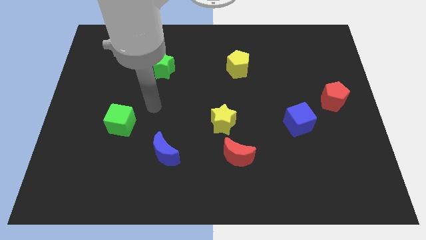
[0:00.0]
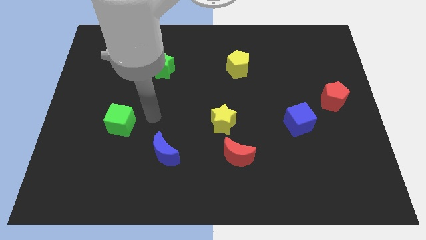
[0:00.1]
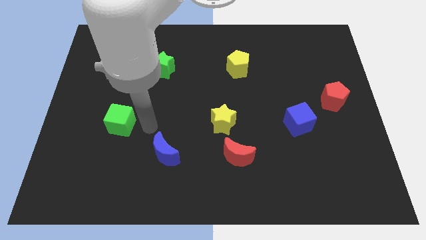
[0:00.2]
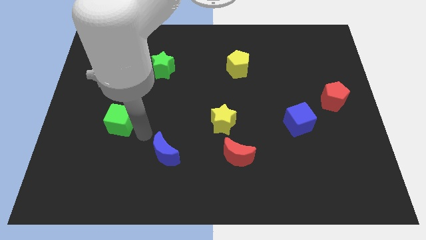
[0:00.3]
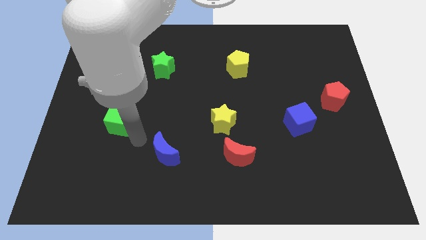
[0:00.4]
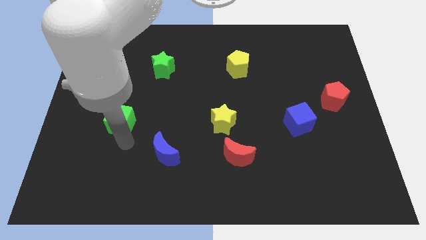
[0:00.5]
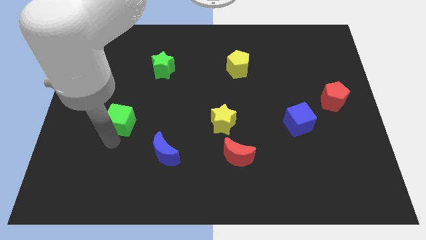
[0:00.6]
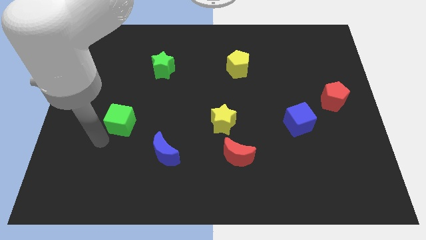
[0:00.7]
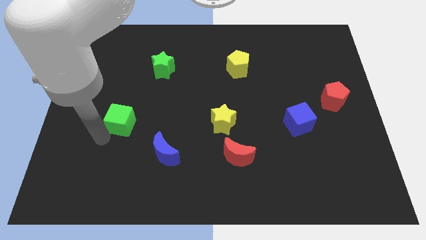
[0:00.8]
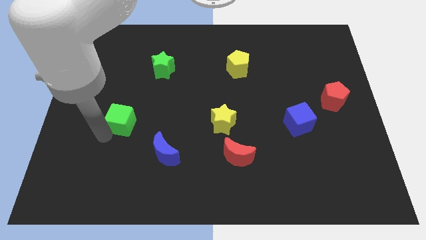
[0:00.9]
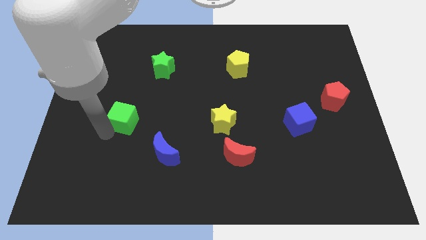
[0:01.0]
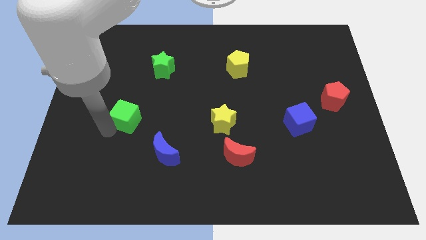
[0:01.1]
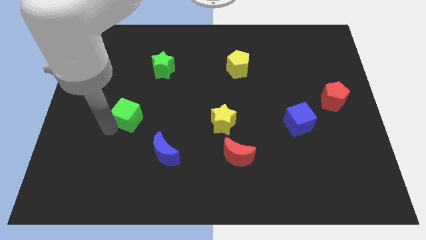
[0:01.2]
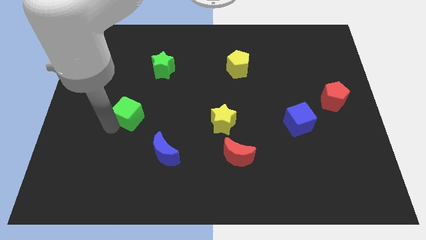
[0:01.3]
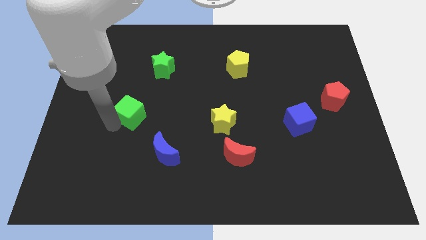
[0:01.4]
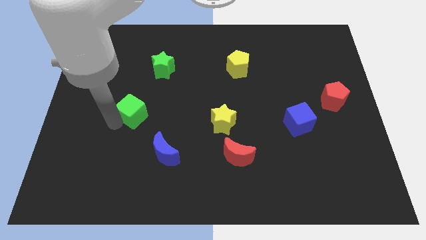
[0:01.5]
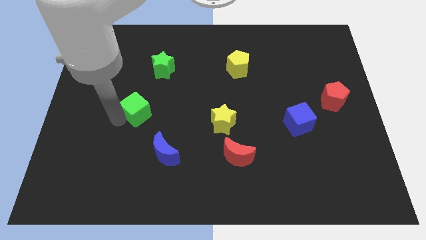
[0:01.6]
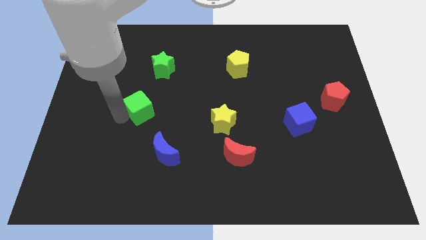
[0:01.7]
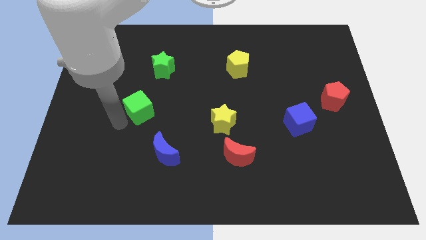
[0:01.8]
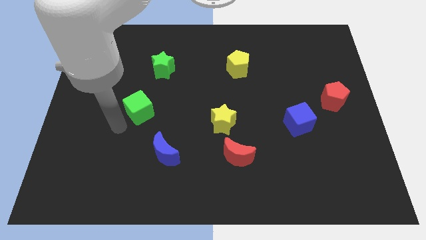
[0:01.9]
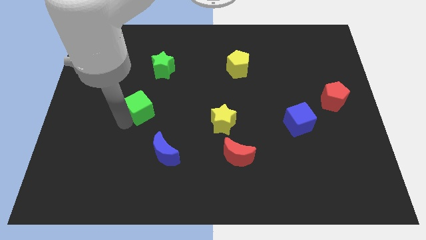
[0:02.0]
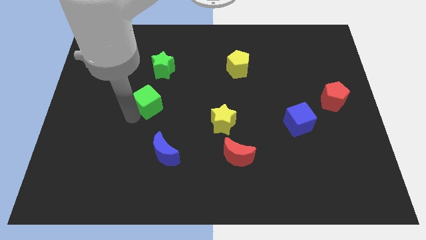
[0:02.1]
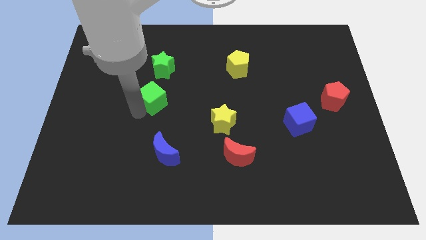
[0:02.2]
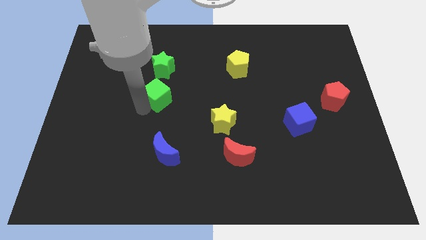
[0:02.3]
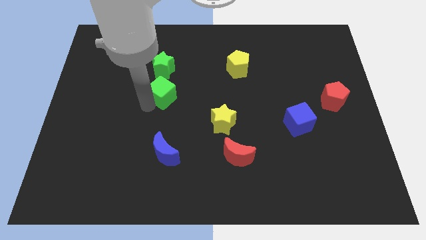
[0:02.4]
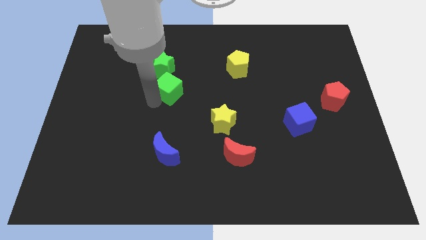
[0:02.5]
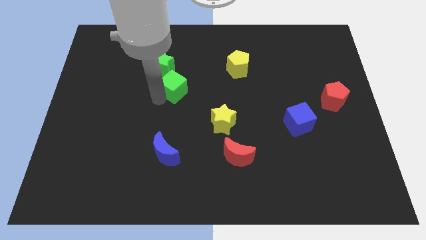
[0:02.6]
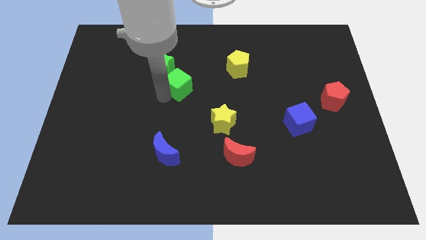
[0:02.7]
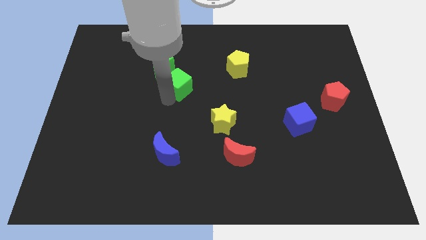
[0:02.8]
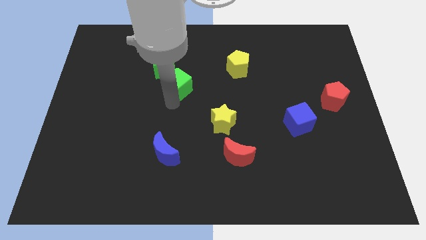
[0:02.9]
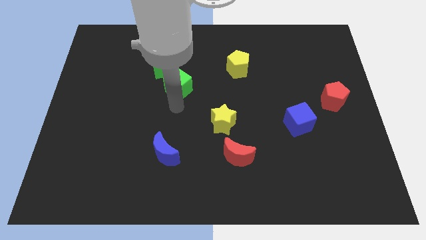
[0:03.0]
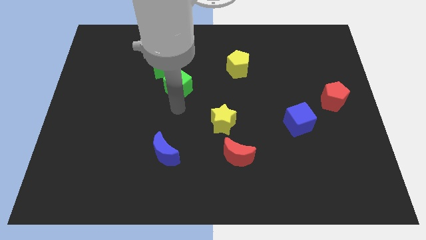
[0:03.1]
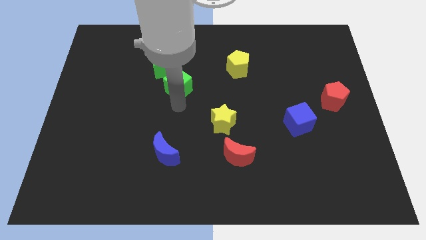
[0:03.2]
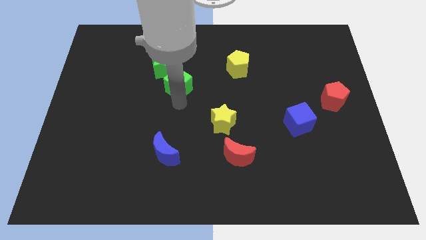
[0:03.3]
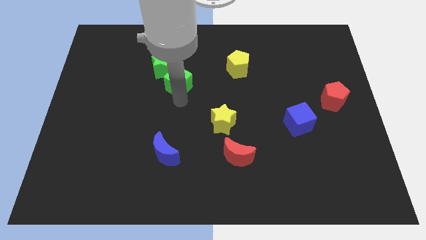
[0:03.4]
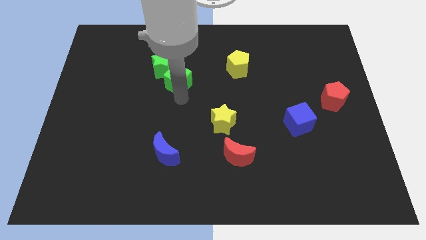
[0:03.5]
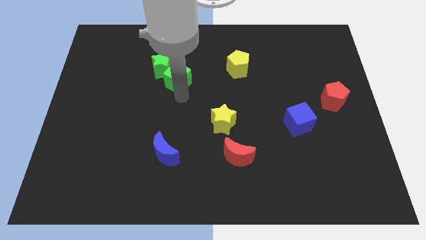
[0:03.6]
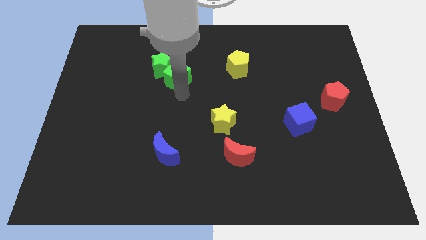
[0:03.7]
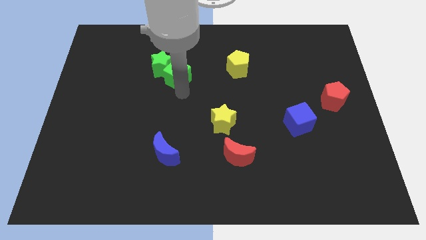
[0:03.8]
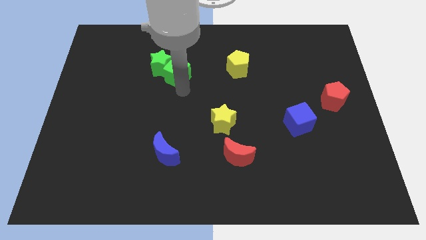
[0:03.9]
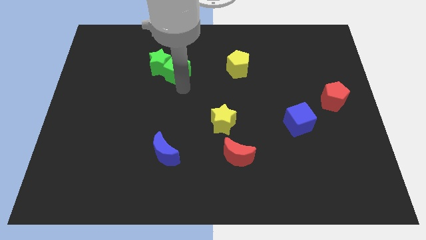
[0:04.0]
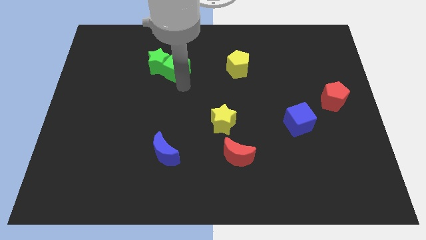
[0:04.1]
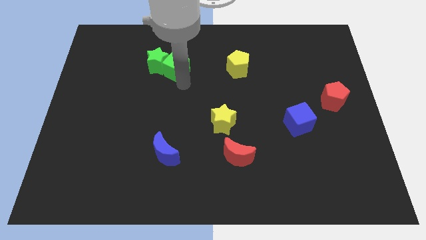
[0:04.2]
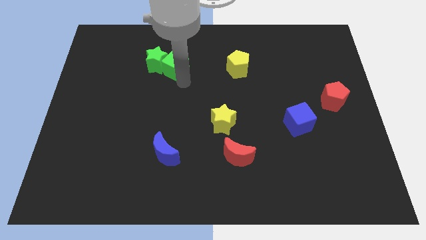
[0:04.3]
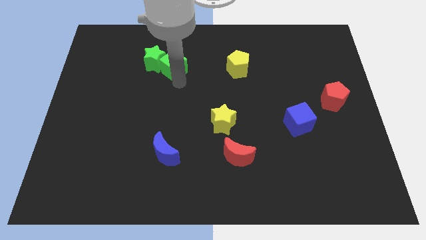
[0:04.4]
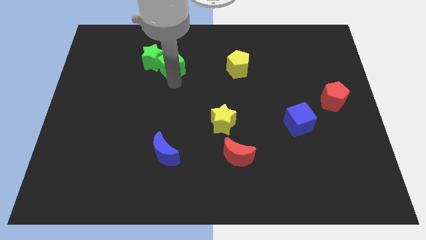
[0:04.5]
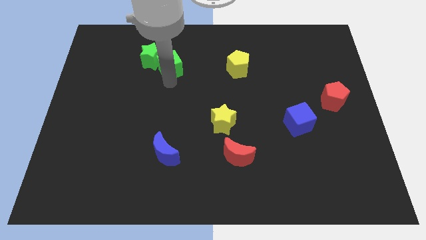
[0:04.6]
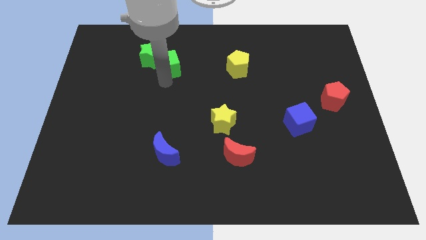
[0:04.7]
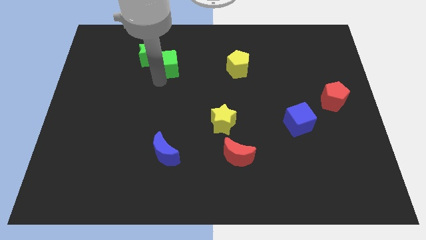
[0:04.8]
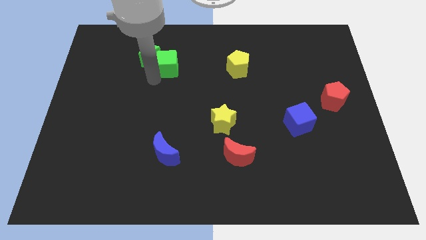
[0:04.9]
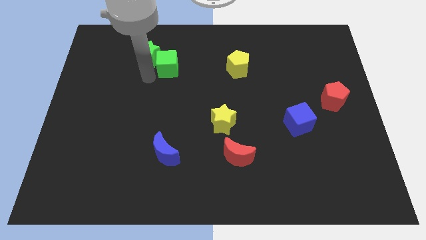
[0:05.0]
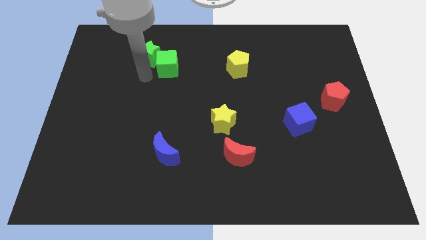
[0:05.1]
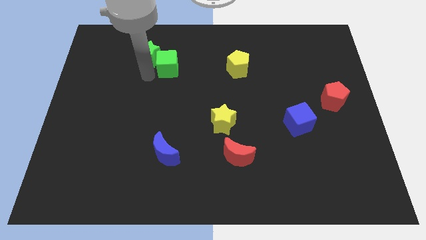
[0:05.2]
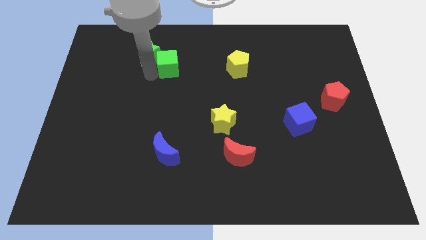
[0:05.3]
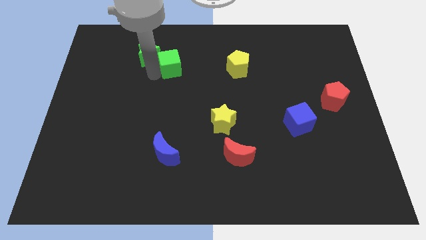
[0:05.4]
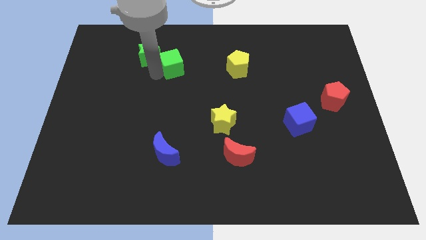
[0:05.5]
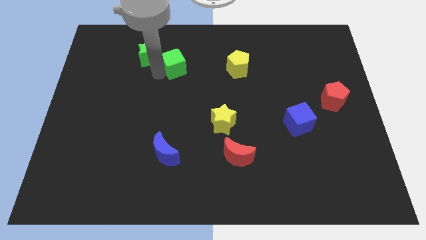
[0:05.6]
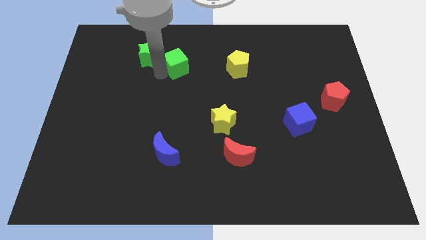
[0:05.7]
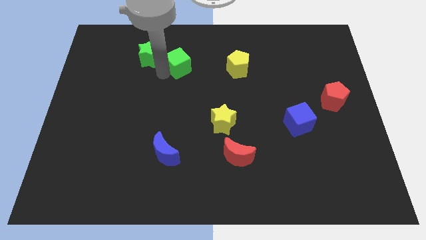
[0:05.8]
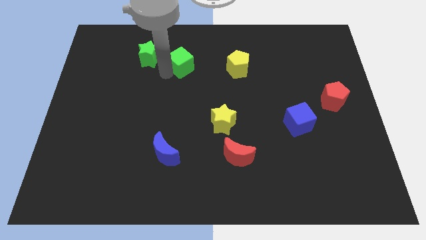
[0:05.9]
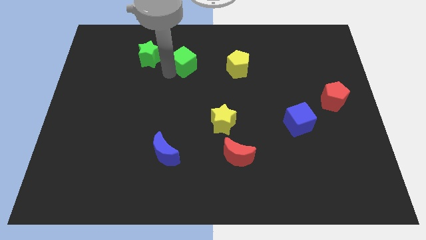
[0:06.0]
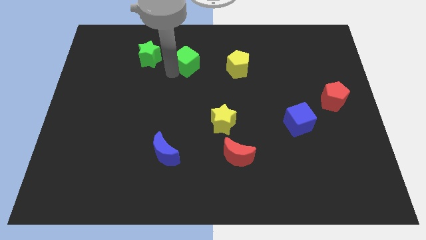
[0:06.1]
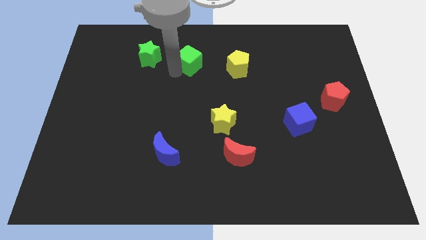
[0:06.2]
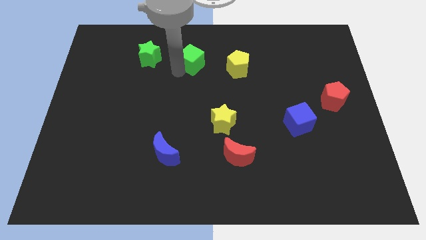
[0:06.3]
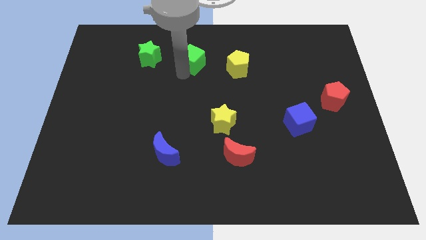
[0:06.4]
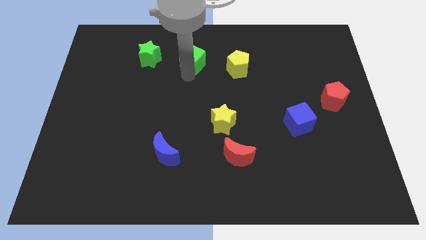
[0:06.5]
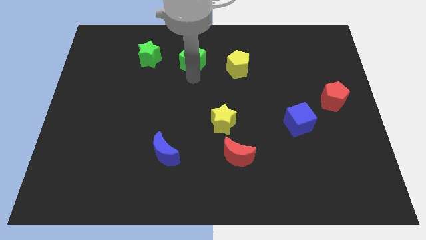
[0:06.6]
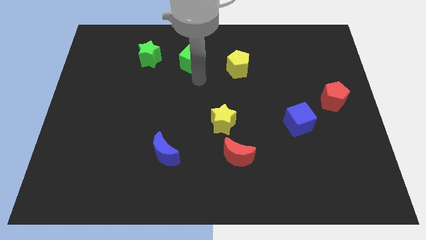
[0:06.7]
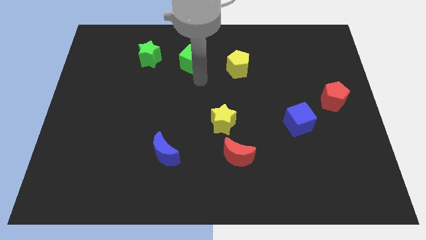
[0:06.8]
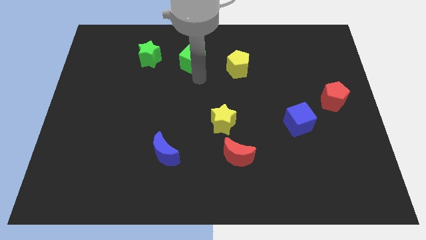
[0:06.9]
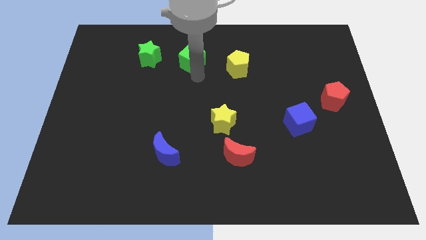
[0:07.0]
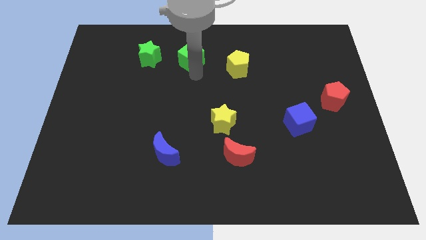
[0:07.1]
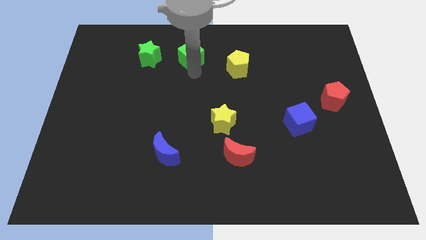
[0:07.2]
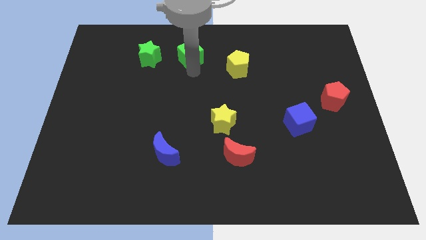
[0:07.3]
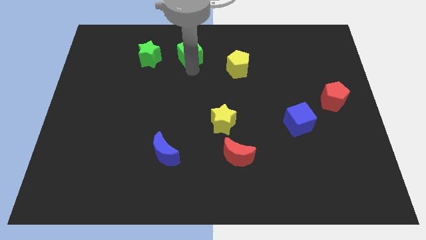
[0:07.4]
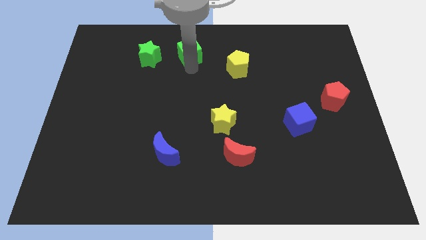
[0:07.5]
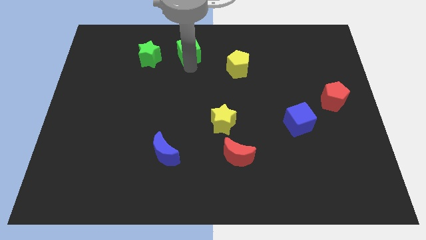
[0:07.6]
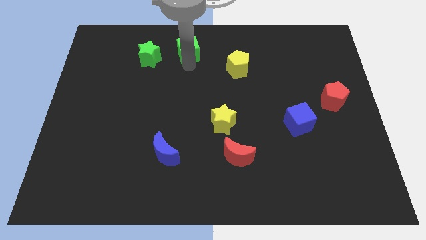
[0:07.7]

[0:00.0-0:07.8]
move the green cube to the towards your base
